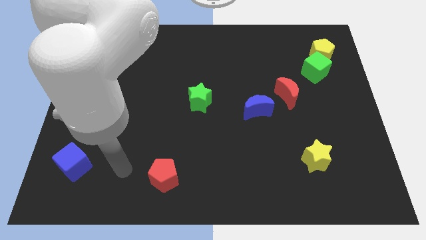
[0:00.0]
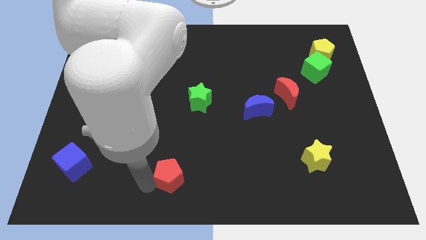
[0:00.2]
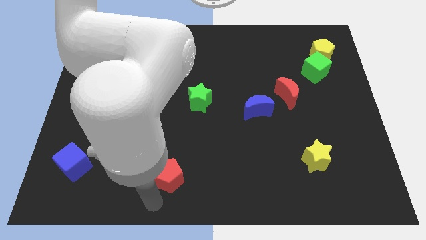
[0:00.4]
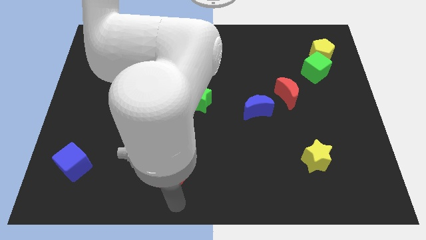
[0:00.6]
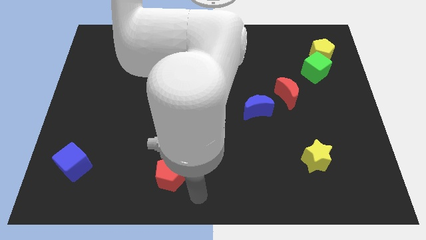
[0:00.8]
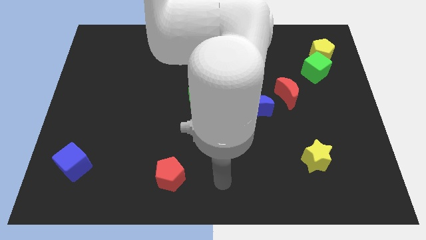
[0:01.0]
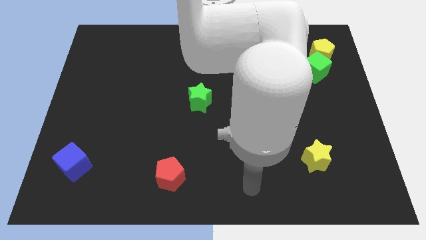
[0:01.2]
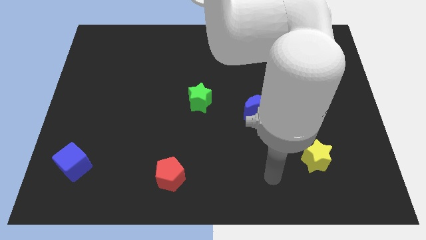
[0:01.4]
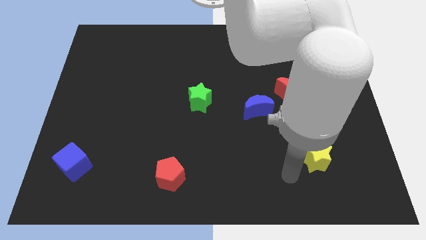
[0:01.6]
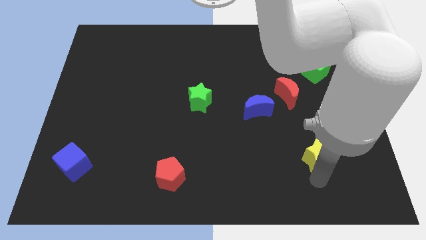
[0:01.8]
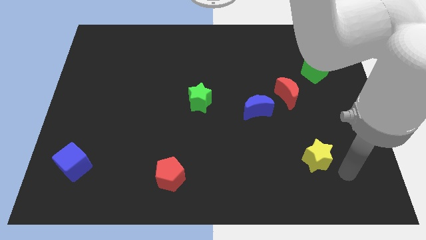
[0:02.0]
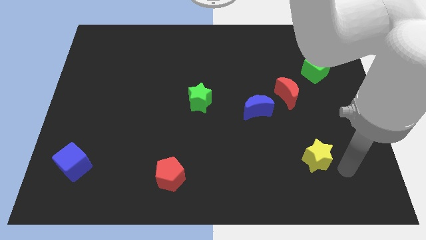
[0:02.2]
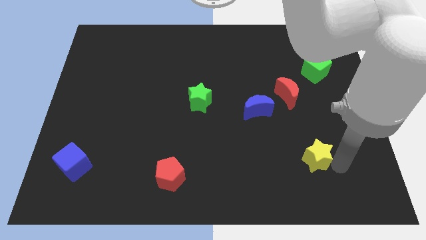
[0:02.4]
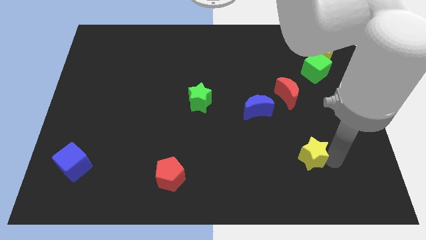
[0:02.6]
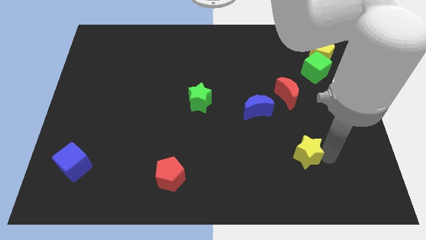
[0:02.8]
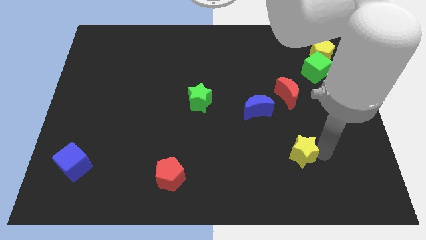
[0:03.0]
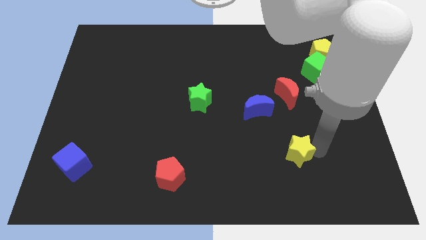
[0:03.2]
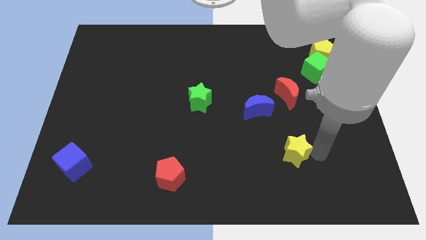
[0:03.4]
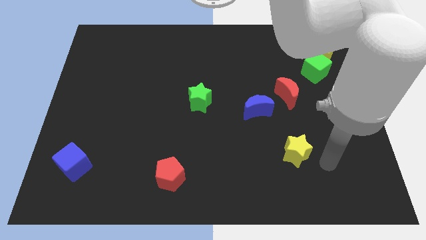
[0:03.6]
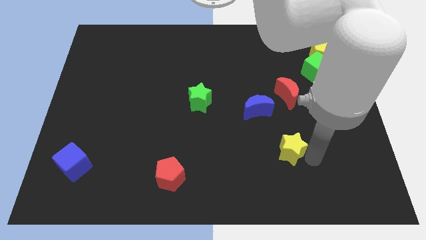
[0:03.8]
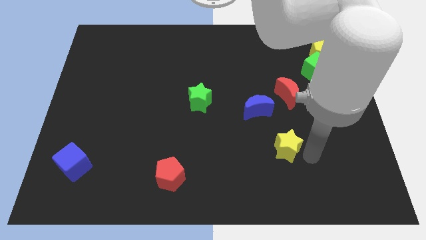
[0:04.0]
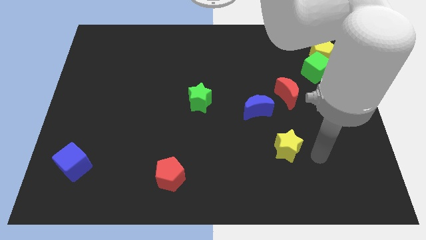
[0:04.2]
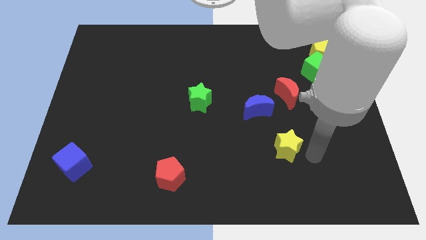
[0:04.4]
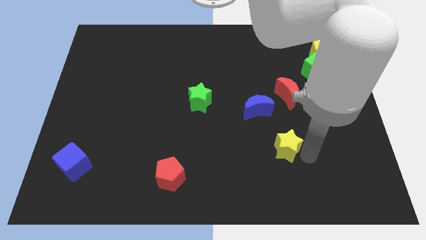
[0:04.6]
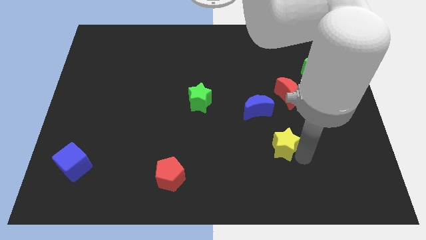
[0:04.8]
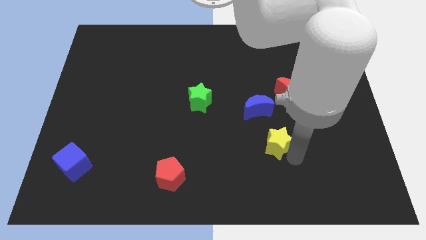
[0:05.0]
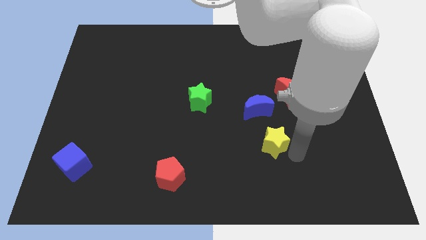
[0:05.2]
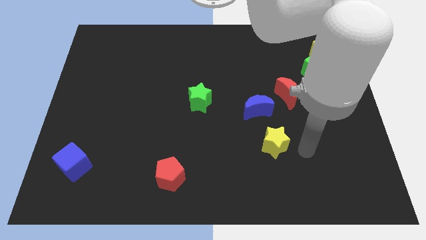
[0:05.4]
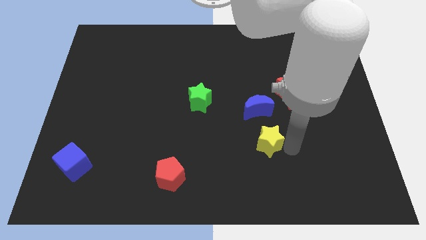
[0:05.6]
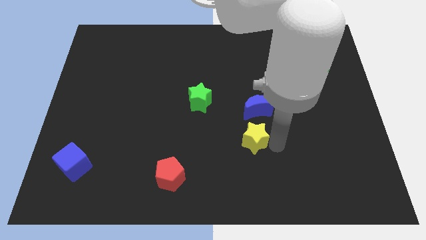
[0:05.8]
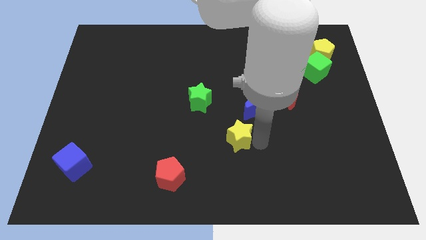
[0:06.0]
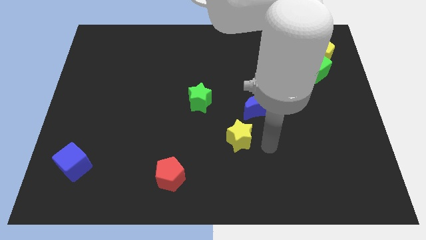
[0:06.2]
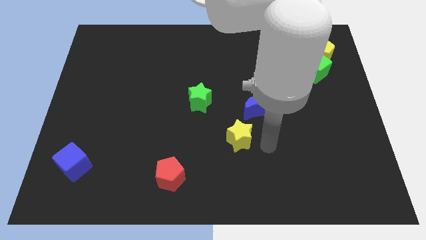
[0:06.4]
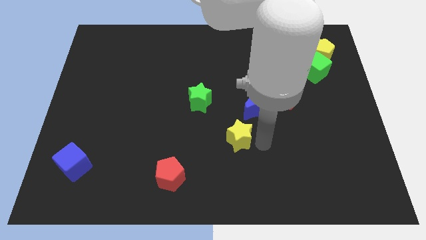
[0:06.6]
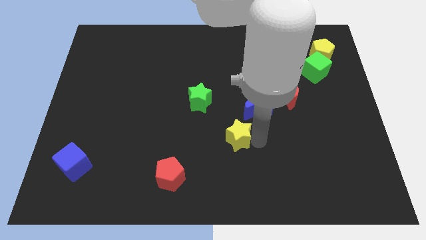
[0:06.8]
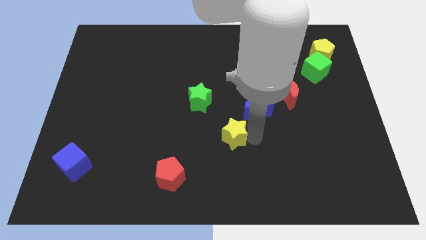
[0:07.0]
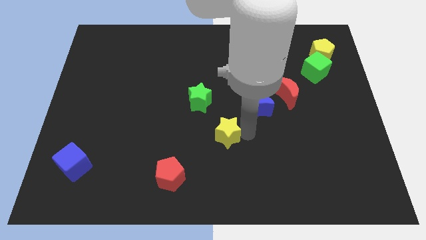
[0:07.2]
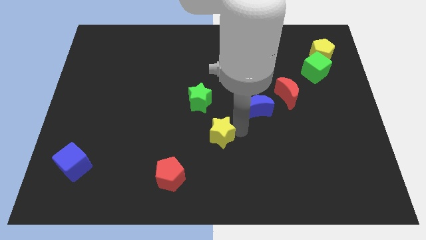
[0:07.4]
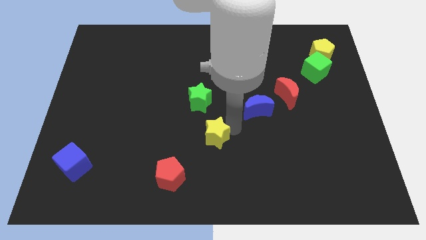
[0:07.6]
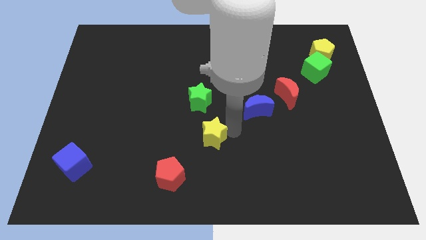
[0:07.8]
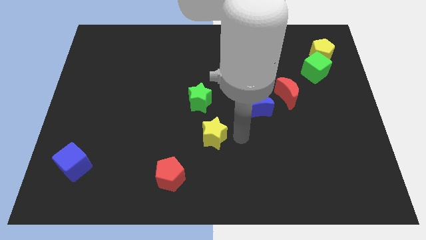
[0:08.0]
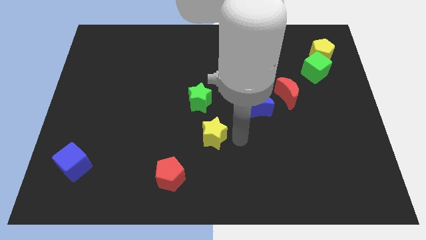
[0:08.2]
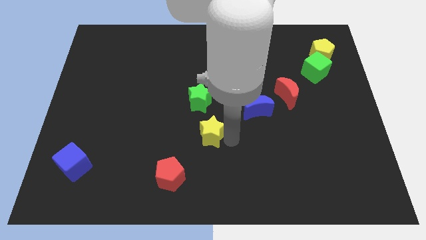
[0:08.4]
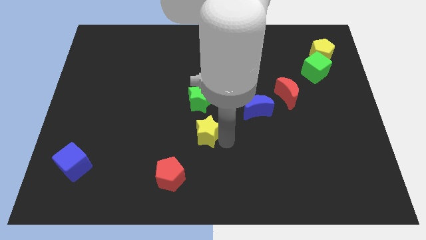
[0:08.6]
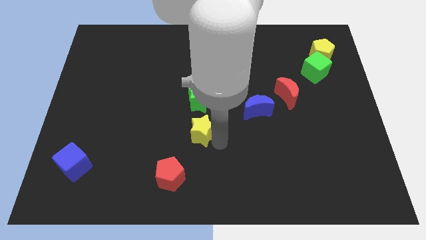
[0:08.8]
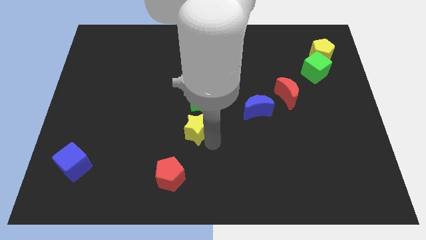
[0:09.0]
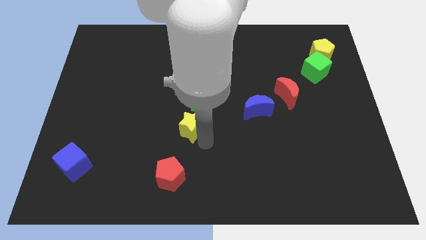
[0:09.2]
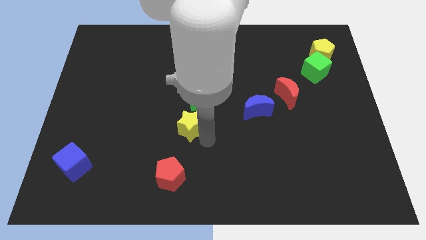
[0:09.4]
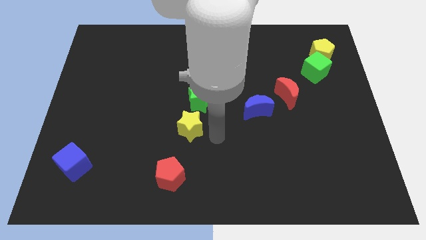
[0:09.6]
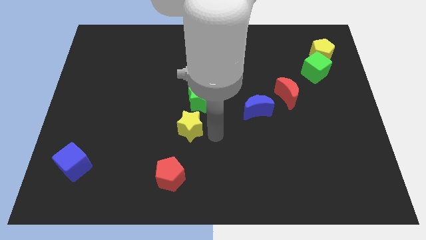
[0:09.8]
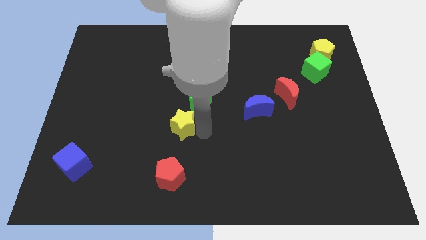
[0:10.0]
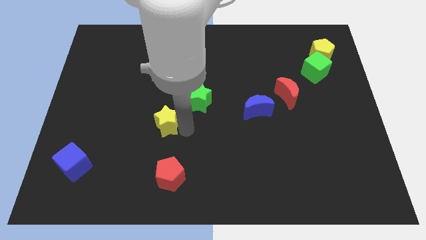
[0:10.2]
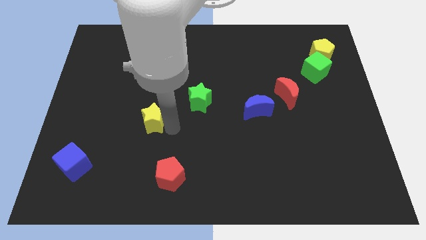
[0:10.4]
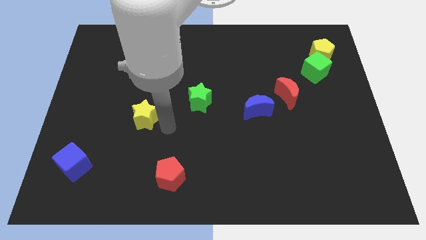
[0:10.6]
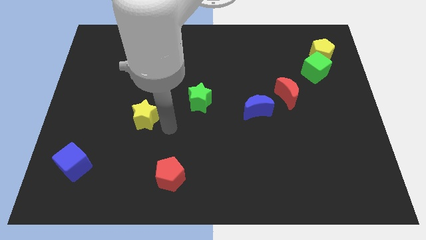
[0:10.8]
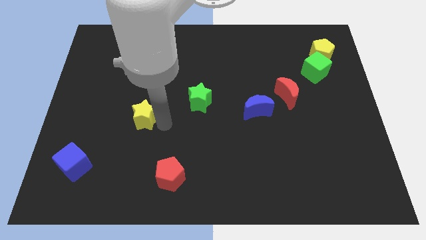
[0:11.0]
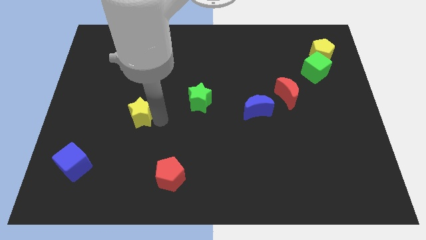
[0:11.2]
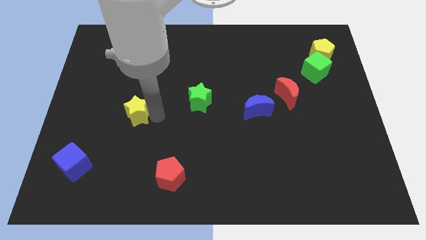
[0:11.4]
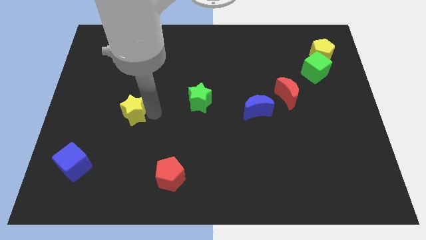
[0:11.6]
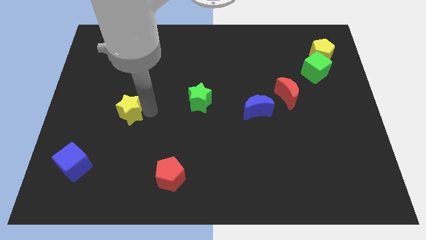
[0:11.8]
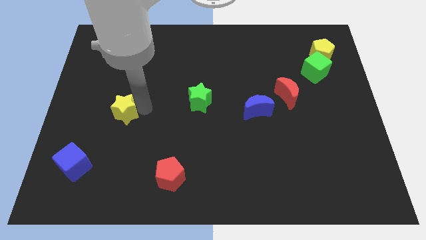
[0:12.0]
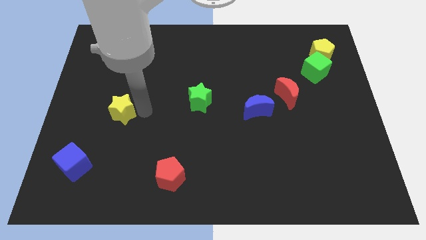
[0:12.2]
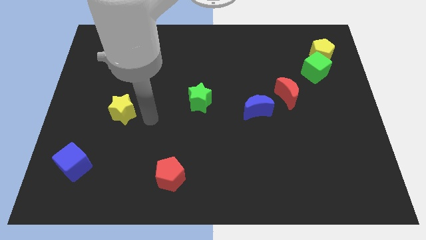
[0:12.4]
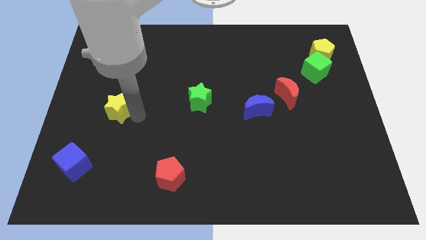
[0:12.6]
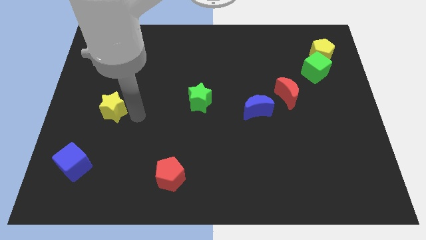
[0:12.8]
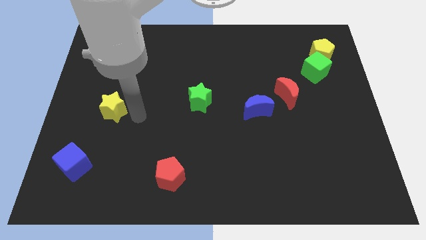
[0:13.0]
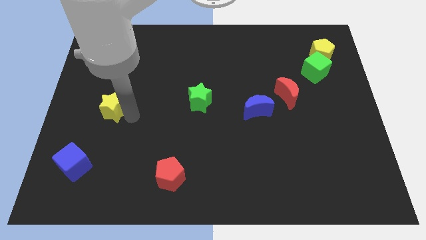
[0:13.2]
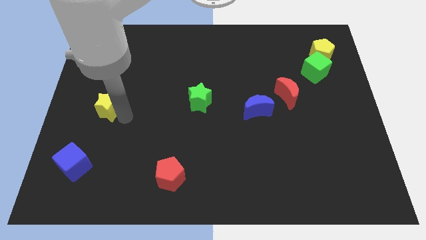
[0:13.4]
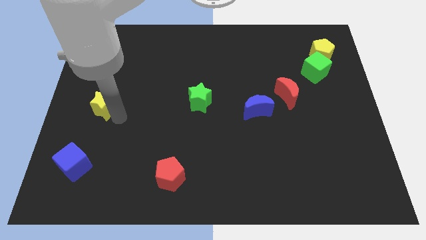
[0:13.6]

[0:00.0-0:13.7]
move the yellow star to the left side of the board
